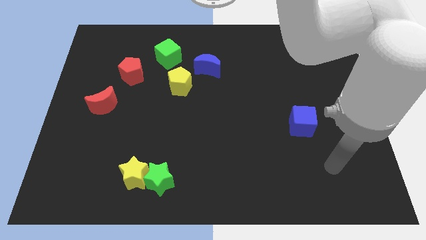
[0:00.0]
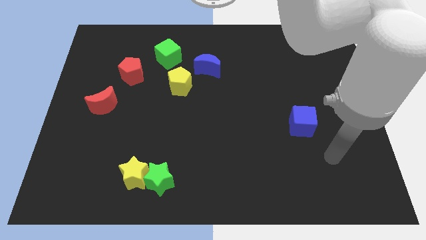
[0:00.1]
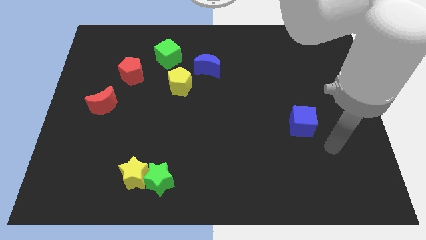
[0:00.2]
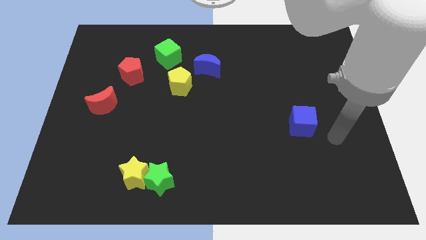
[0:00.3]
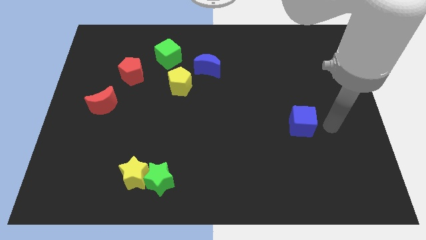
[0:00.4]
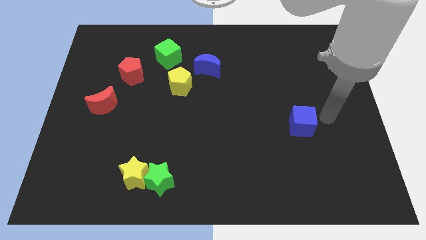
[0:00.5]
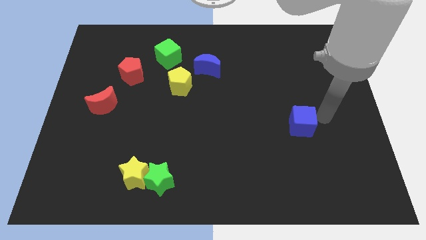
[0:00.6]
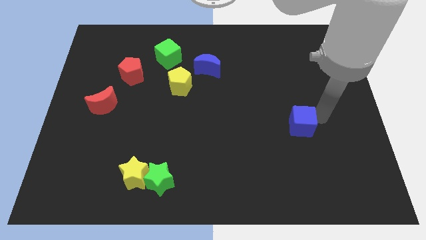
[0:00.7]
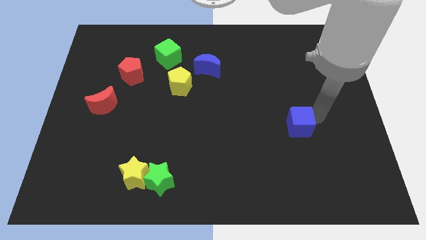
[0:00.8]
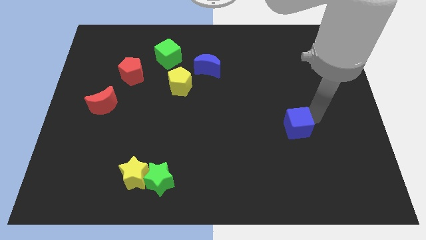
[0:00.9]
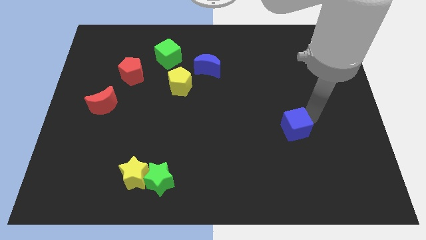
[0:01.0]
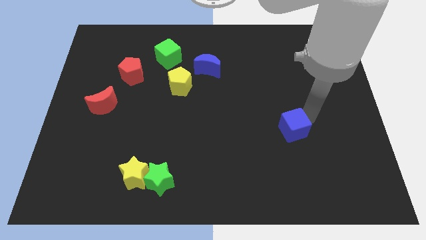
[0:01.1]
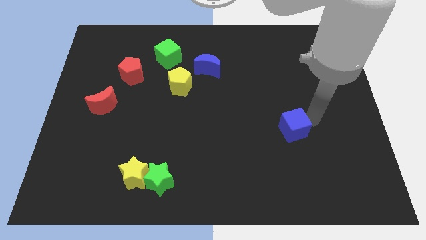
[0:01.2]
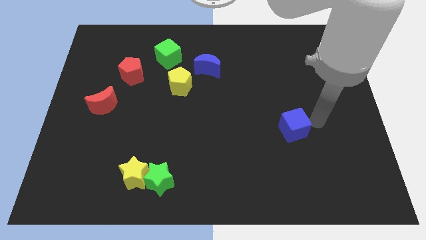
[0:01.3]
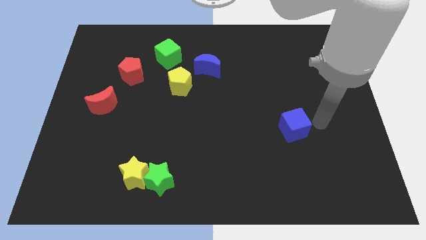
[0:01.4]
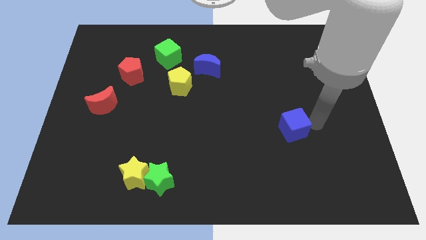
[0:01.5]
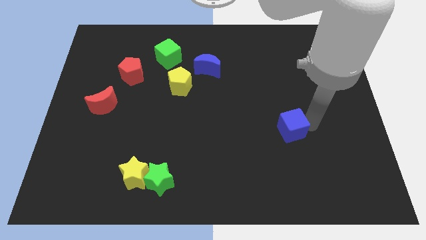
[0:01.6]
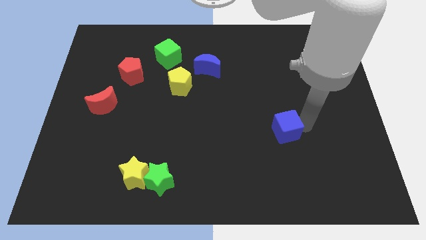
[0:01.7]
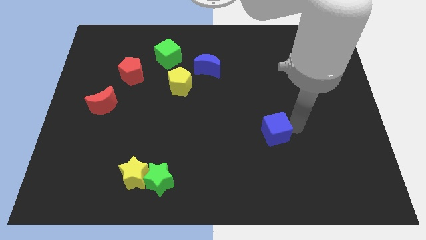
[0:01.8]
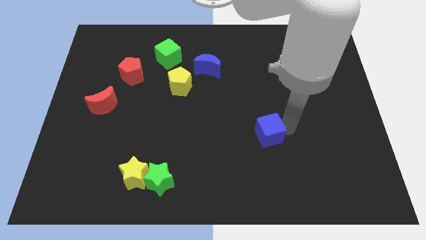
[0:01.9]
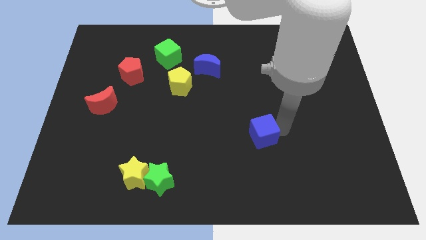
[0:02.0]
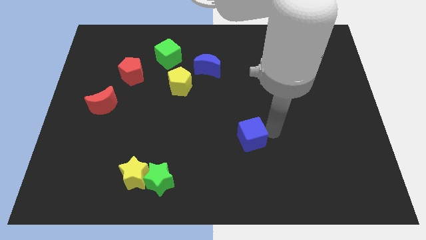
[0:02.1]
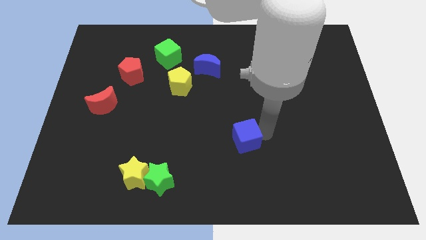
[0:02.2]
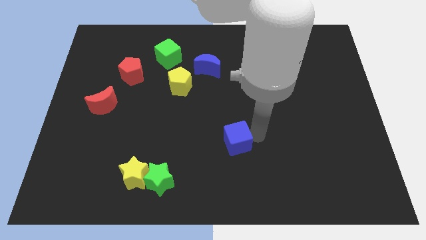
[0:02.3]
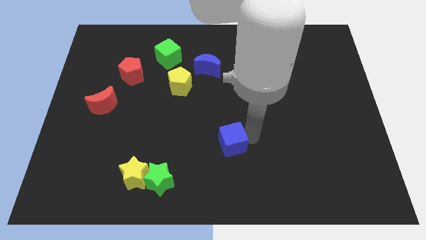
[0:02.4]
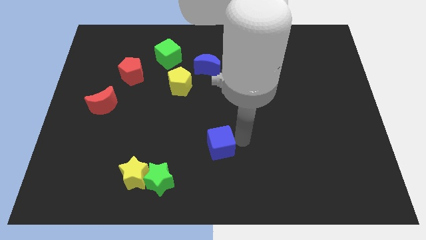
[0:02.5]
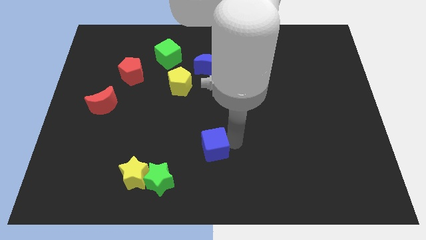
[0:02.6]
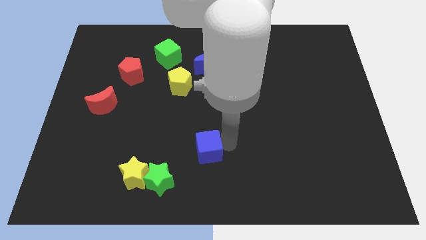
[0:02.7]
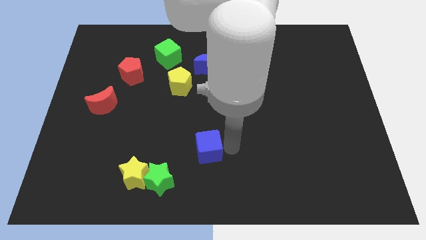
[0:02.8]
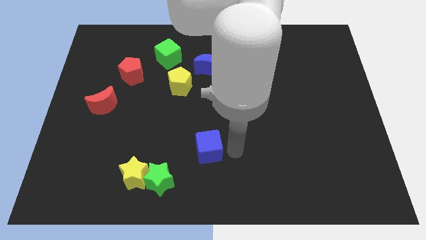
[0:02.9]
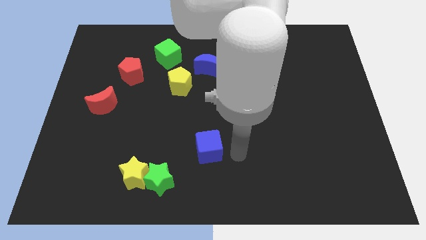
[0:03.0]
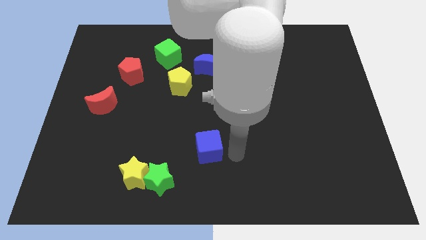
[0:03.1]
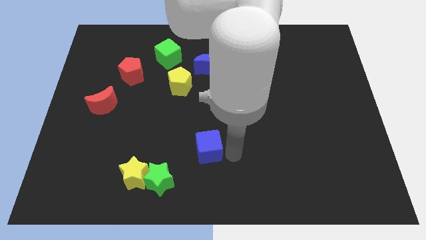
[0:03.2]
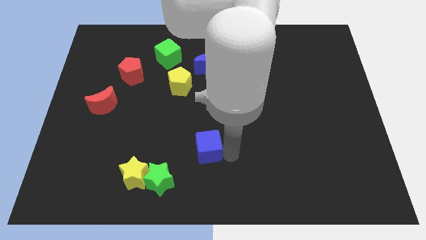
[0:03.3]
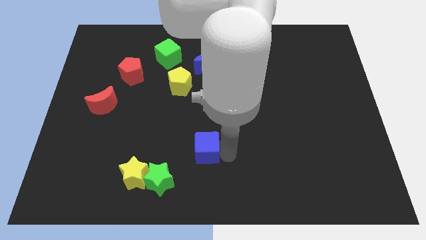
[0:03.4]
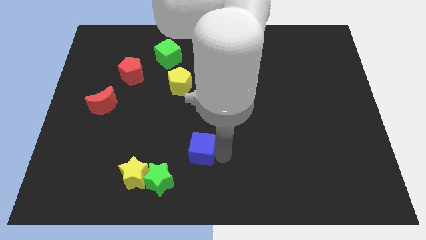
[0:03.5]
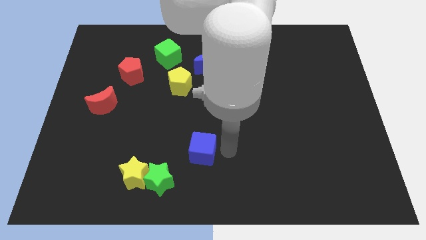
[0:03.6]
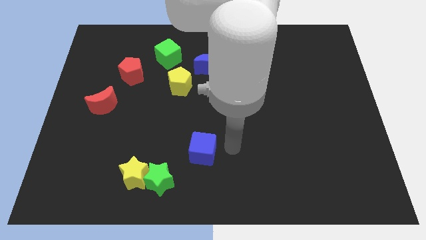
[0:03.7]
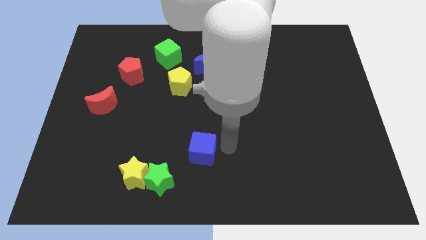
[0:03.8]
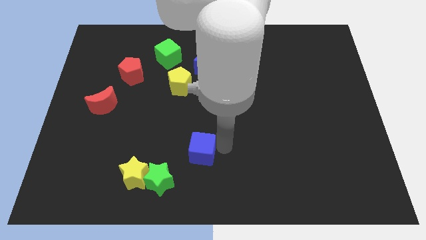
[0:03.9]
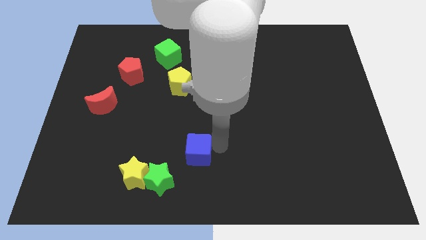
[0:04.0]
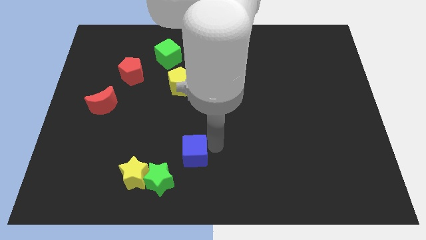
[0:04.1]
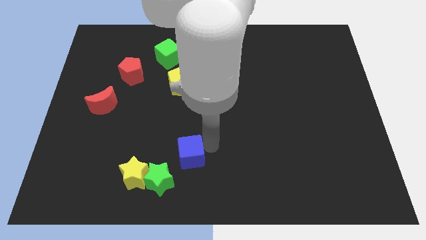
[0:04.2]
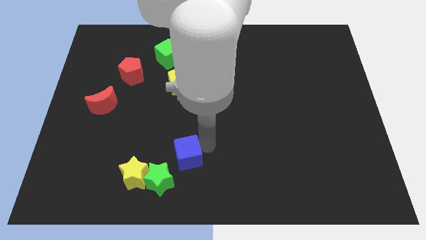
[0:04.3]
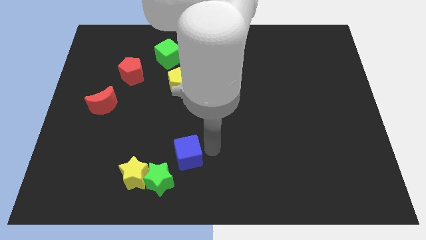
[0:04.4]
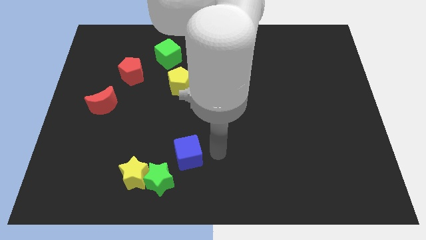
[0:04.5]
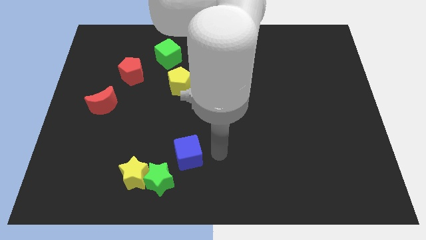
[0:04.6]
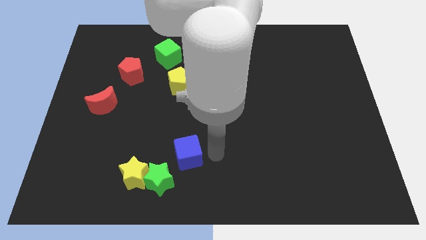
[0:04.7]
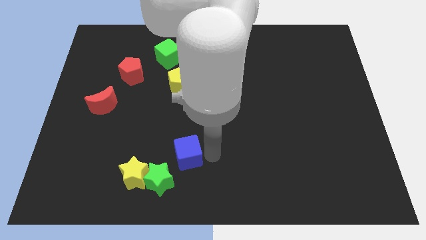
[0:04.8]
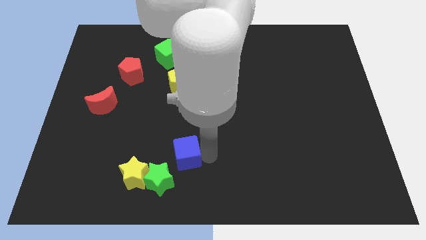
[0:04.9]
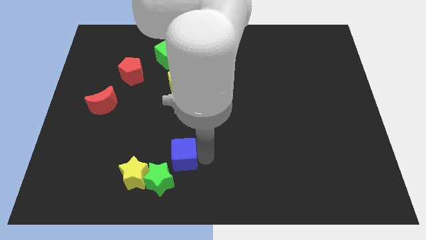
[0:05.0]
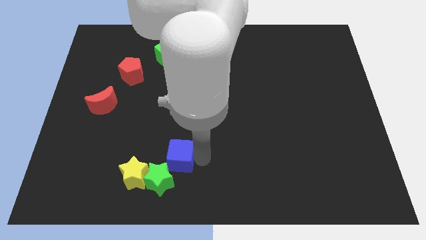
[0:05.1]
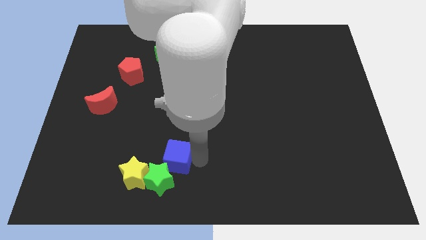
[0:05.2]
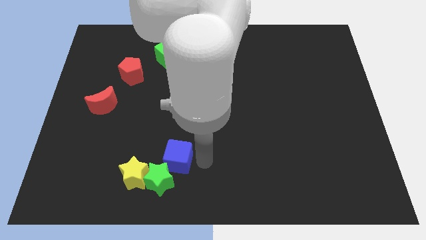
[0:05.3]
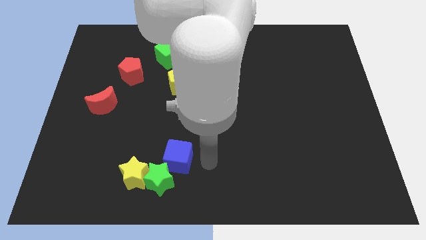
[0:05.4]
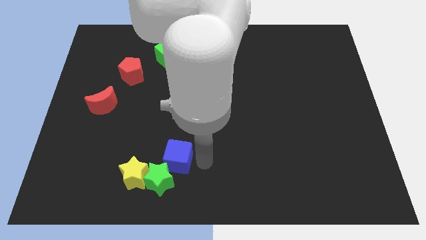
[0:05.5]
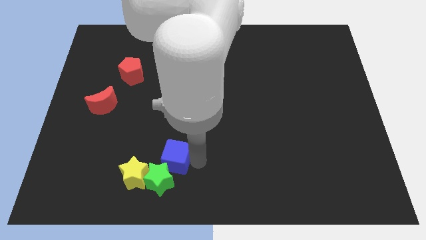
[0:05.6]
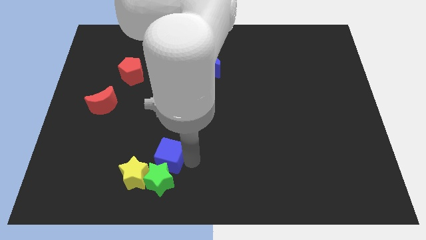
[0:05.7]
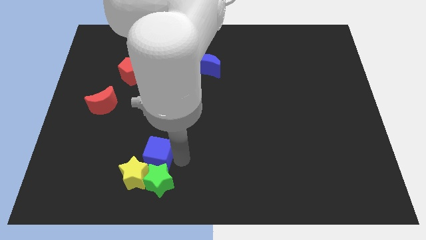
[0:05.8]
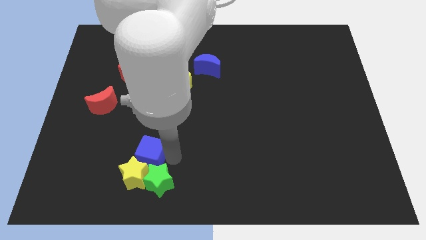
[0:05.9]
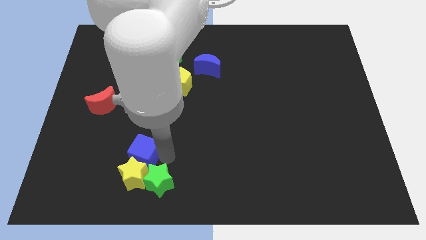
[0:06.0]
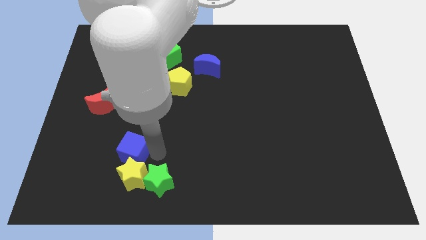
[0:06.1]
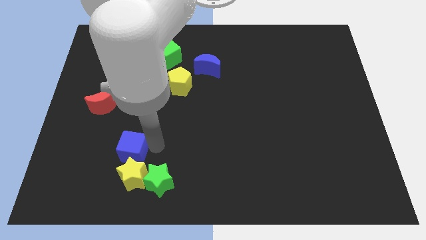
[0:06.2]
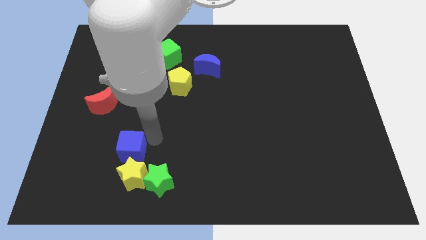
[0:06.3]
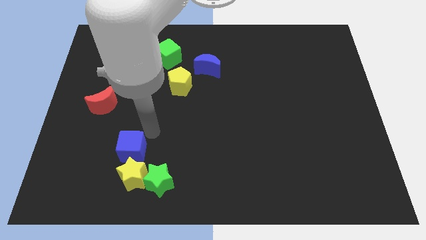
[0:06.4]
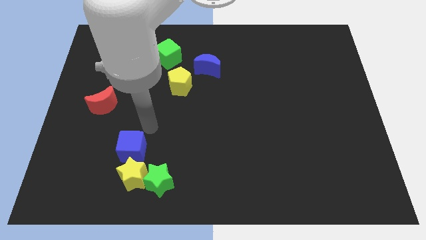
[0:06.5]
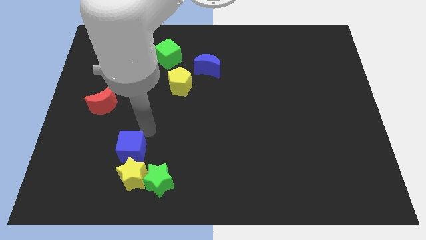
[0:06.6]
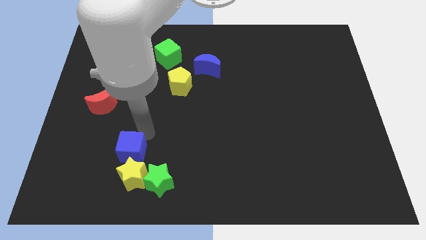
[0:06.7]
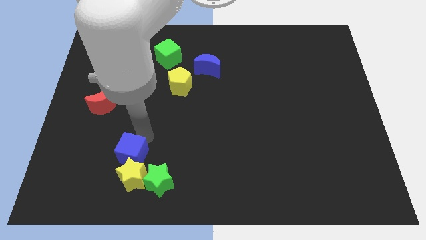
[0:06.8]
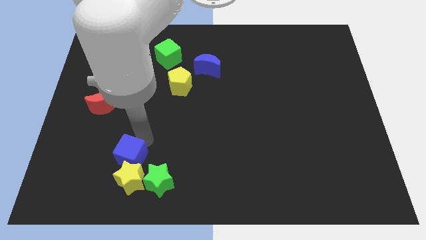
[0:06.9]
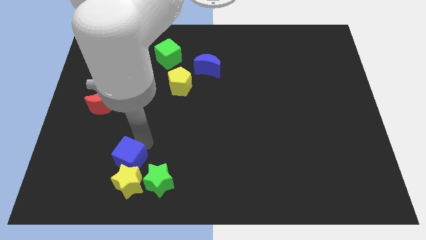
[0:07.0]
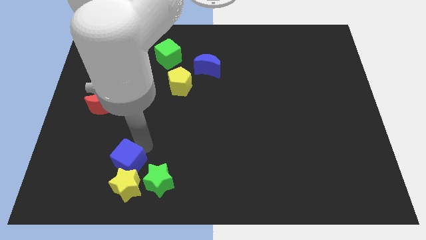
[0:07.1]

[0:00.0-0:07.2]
push the blue cube just left of the green star

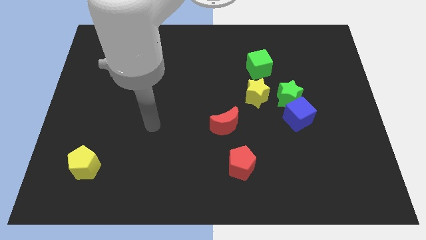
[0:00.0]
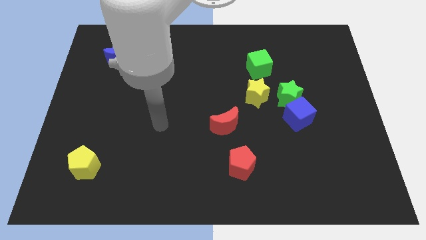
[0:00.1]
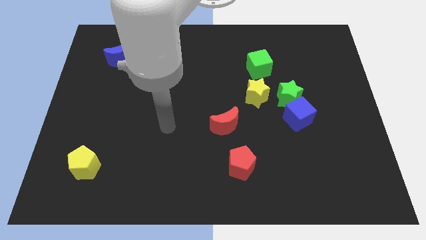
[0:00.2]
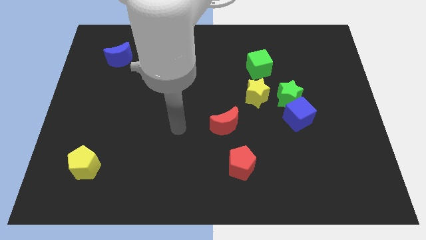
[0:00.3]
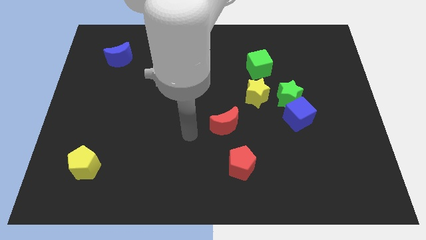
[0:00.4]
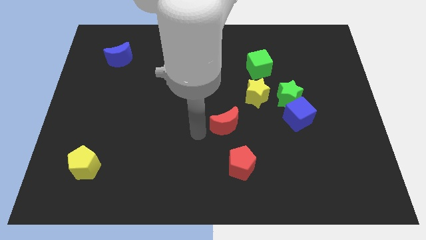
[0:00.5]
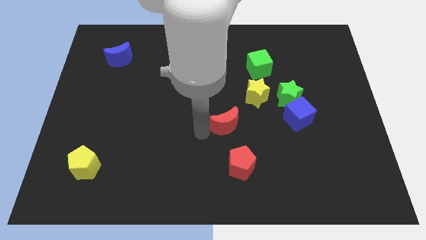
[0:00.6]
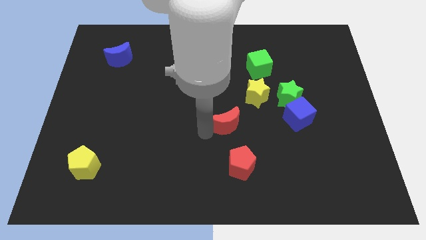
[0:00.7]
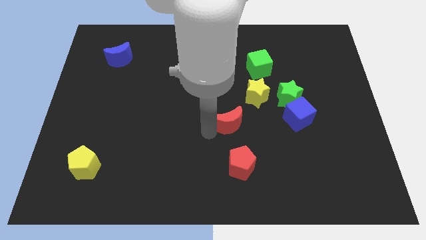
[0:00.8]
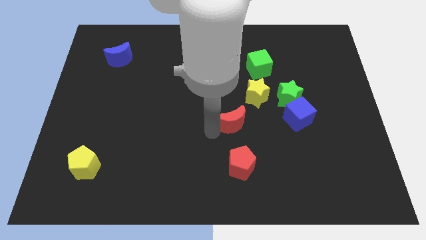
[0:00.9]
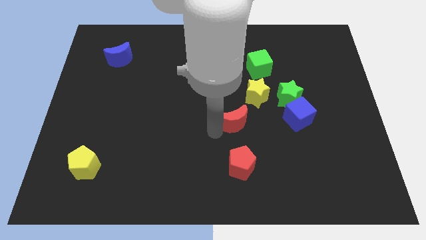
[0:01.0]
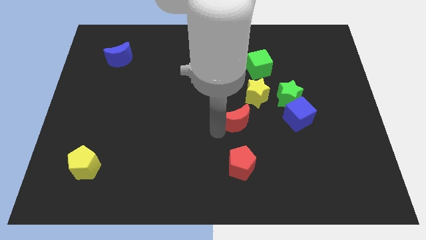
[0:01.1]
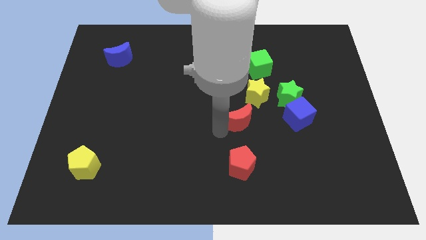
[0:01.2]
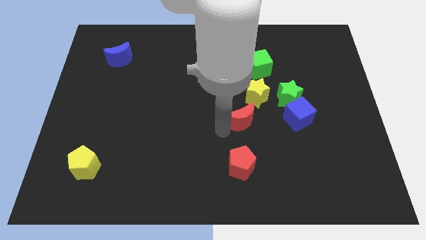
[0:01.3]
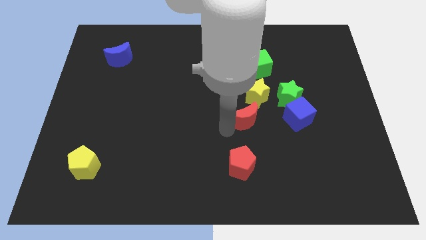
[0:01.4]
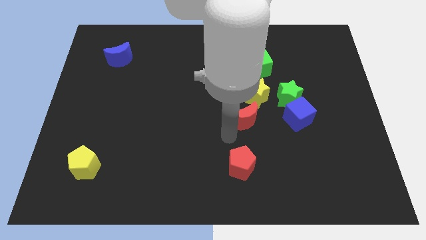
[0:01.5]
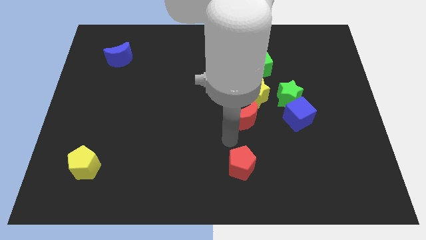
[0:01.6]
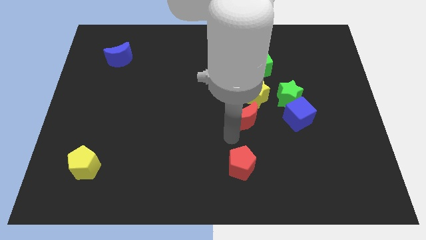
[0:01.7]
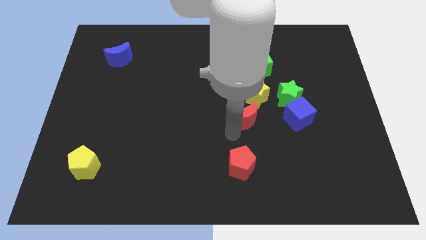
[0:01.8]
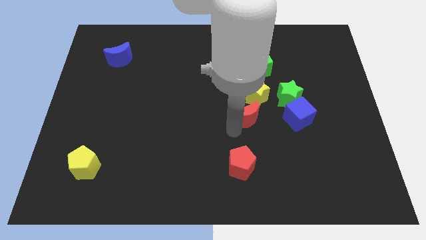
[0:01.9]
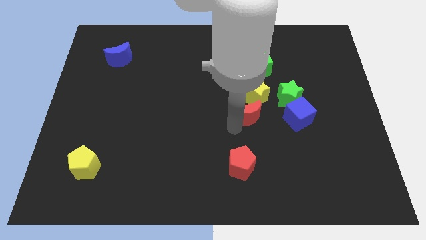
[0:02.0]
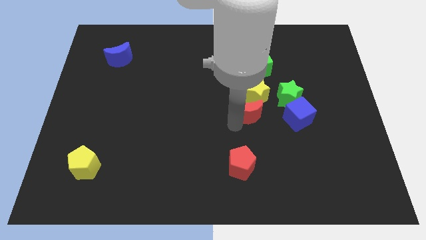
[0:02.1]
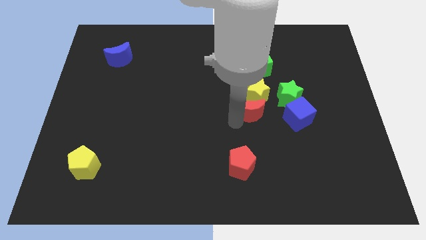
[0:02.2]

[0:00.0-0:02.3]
push the red moon below the green cube
